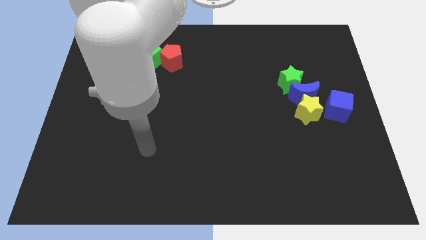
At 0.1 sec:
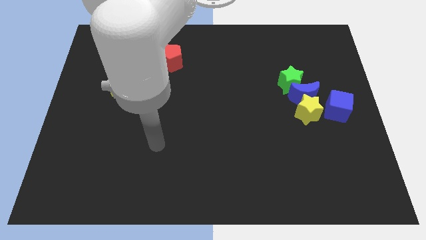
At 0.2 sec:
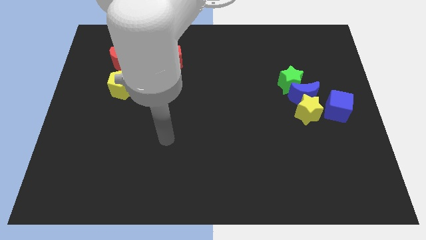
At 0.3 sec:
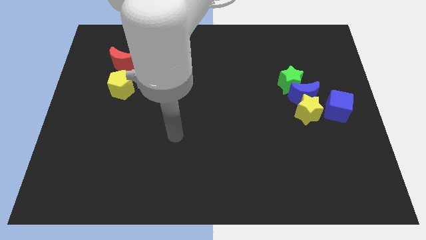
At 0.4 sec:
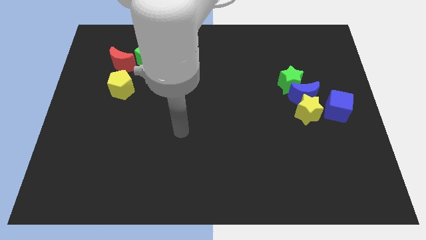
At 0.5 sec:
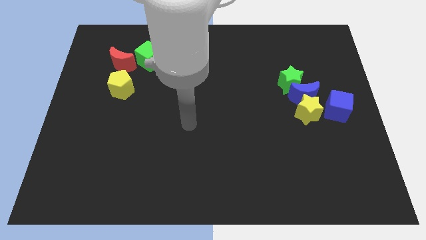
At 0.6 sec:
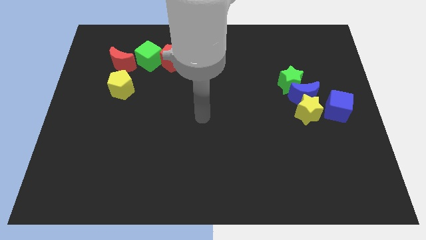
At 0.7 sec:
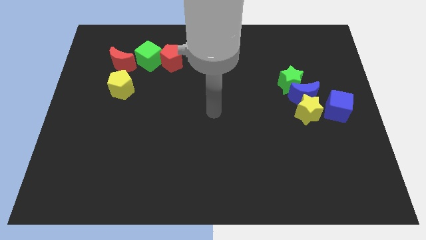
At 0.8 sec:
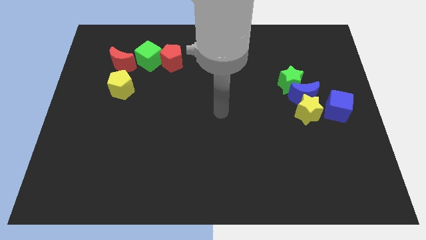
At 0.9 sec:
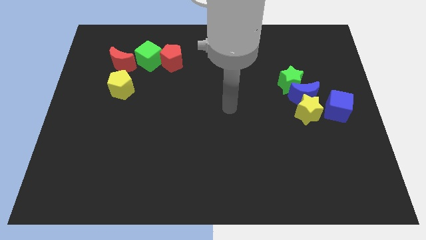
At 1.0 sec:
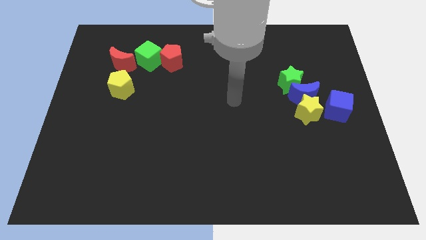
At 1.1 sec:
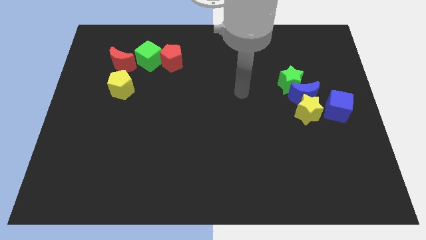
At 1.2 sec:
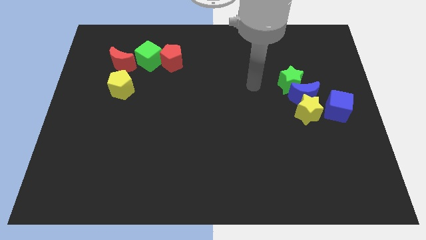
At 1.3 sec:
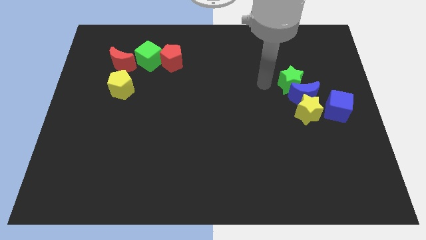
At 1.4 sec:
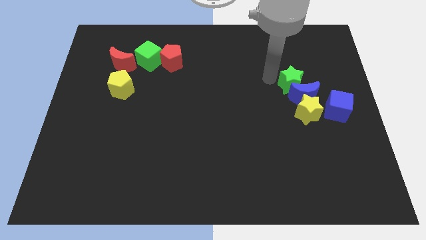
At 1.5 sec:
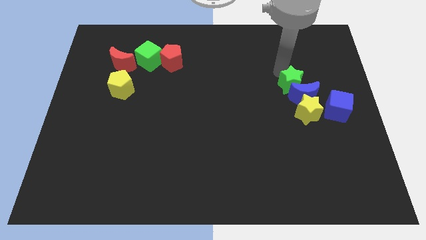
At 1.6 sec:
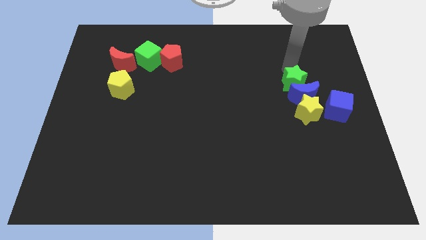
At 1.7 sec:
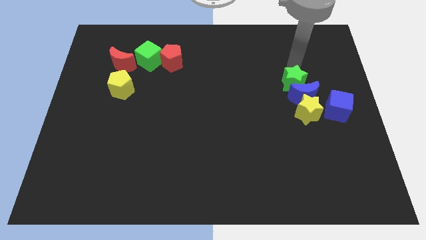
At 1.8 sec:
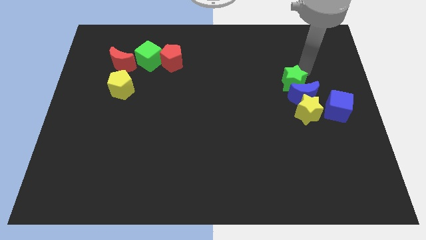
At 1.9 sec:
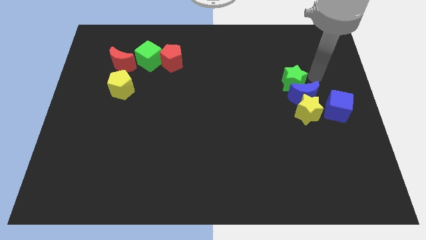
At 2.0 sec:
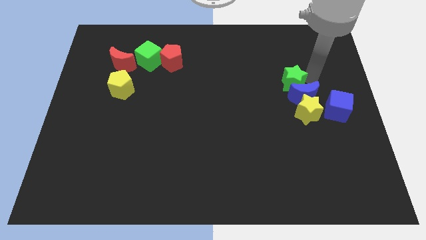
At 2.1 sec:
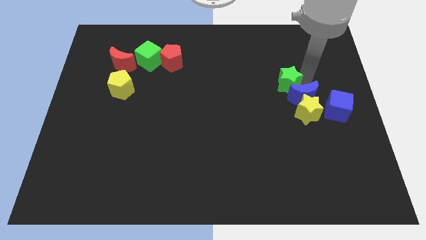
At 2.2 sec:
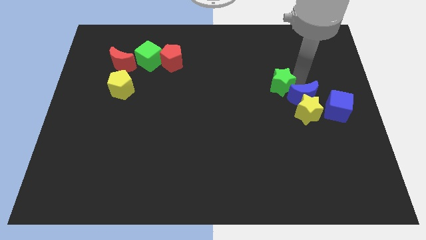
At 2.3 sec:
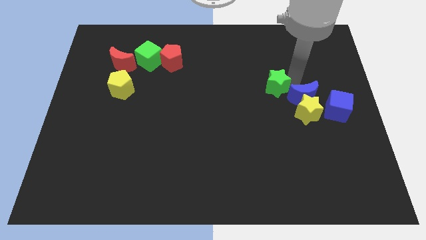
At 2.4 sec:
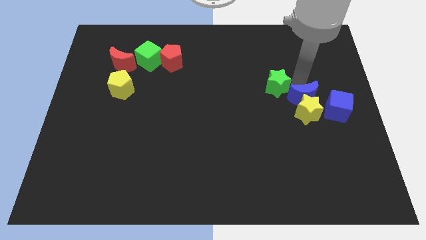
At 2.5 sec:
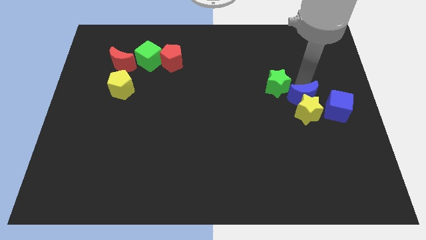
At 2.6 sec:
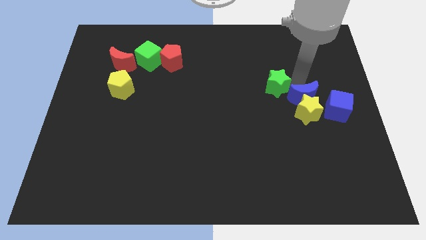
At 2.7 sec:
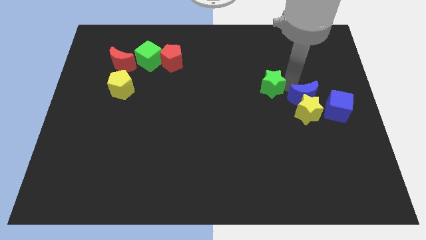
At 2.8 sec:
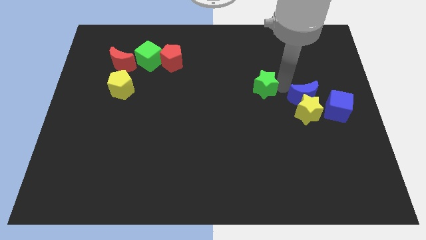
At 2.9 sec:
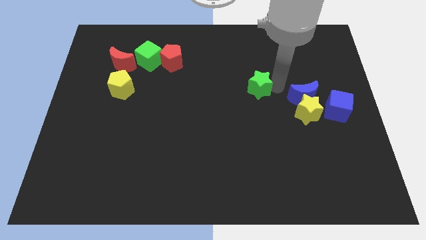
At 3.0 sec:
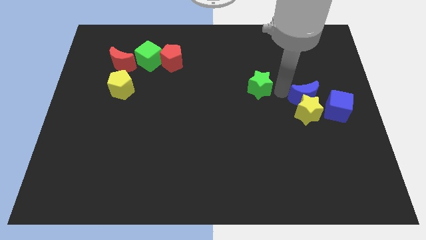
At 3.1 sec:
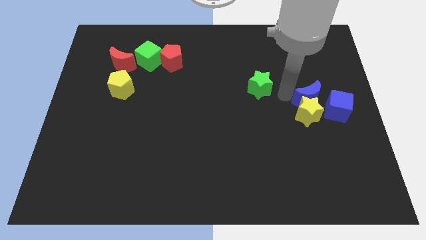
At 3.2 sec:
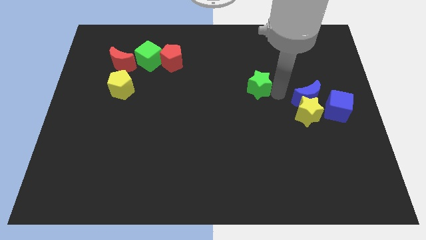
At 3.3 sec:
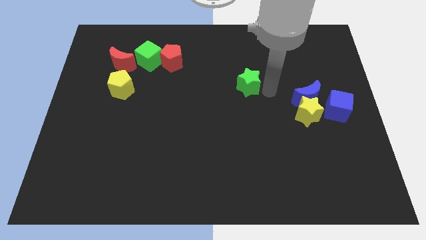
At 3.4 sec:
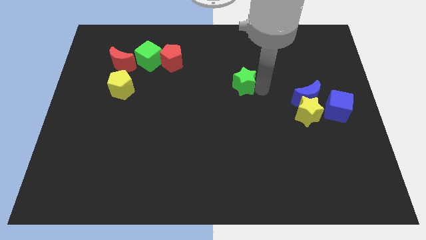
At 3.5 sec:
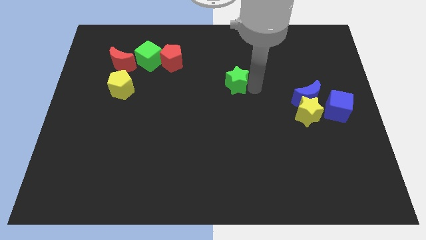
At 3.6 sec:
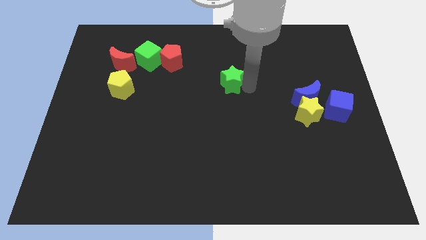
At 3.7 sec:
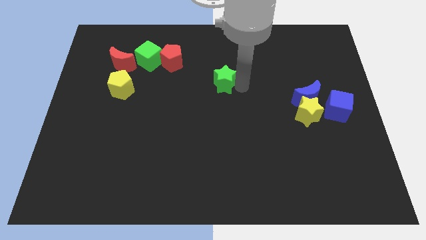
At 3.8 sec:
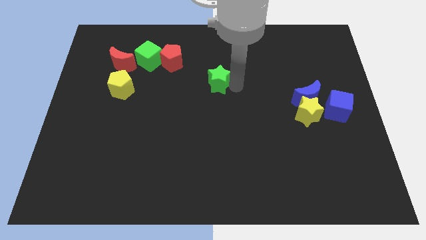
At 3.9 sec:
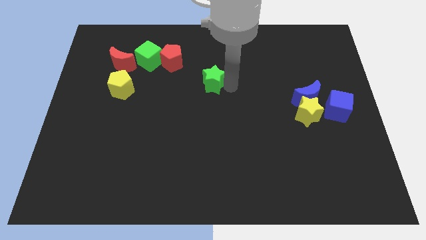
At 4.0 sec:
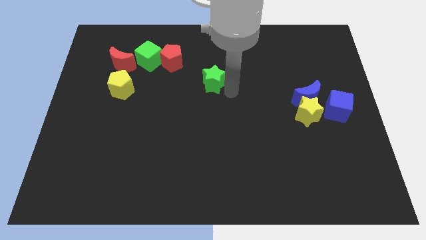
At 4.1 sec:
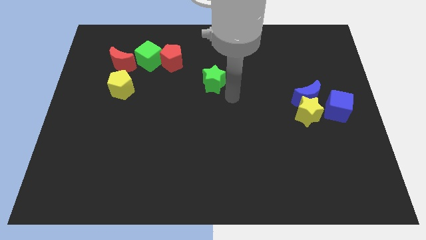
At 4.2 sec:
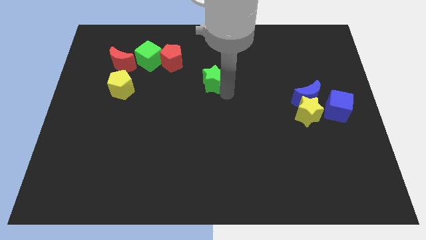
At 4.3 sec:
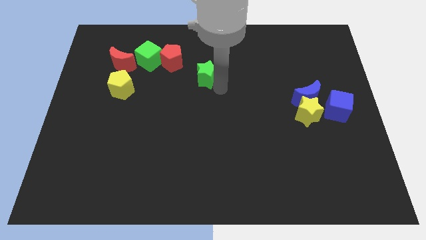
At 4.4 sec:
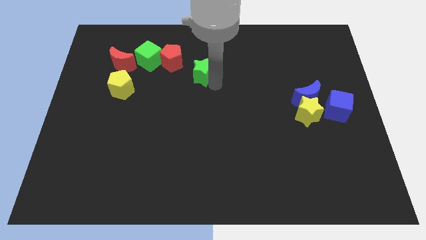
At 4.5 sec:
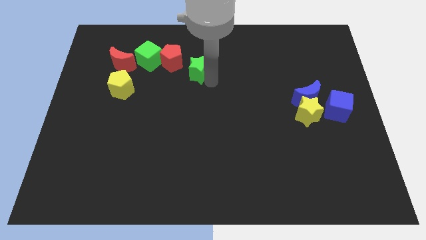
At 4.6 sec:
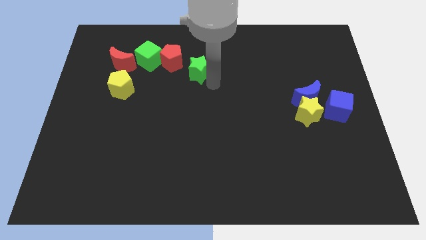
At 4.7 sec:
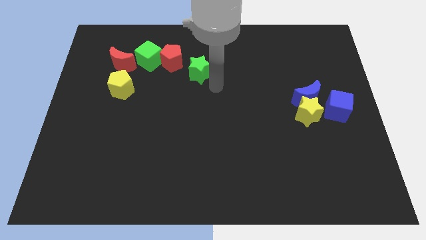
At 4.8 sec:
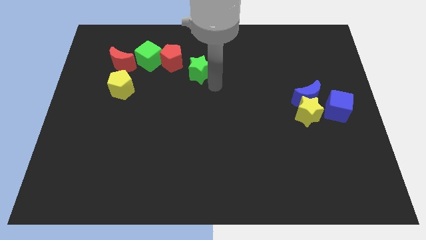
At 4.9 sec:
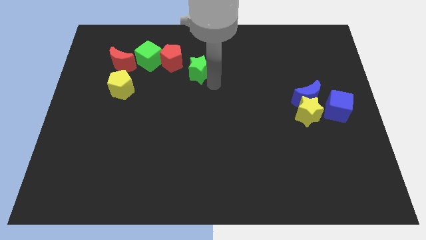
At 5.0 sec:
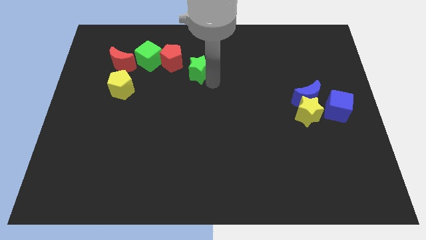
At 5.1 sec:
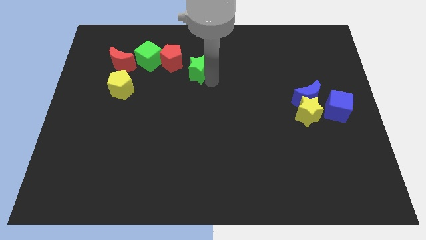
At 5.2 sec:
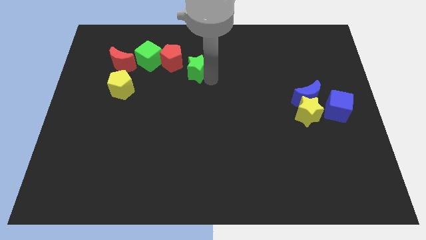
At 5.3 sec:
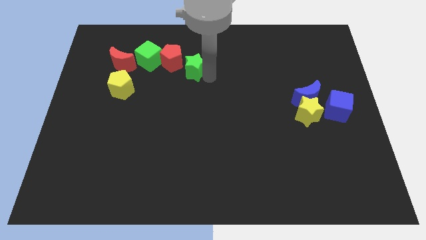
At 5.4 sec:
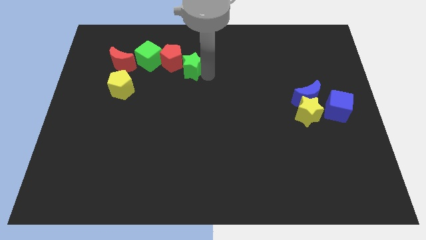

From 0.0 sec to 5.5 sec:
slide the green star towards the red pentagon

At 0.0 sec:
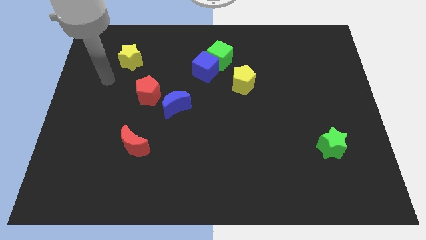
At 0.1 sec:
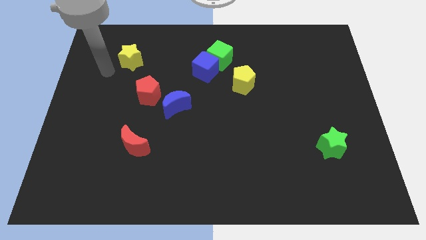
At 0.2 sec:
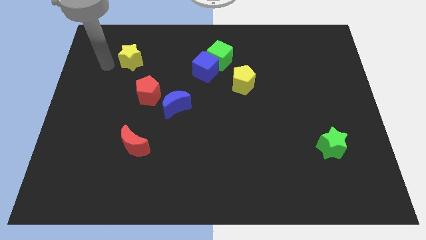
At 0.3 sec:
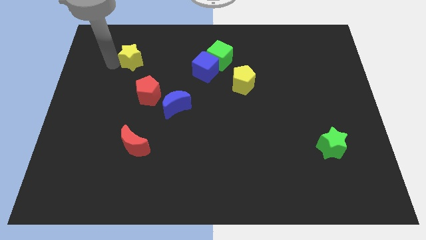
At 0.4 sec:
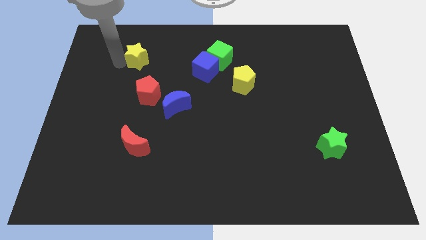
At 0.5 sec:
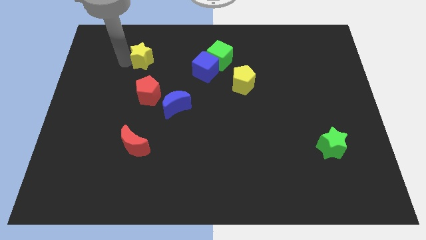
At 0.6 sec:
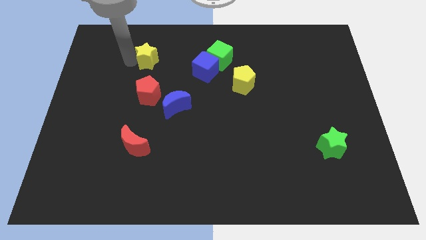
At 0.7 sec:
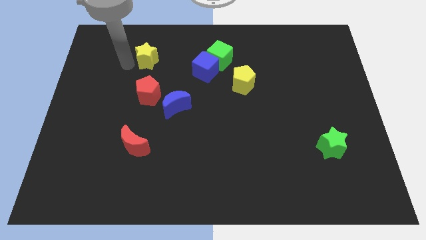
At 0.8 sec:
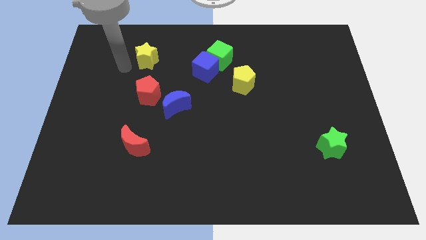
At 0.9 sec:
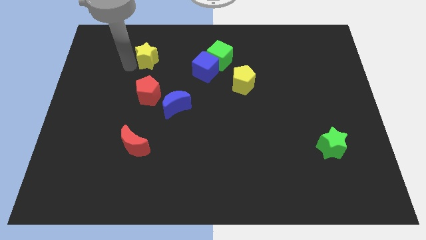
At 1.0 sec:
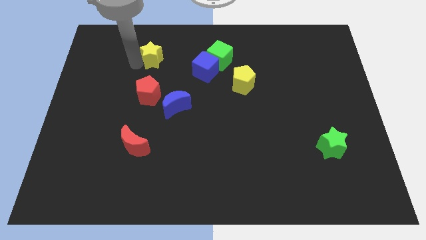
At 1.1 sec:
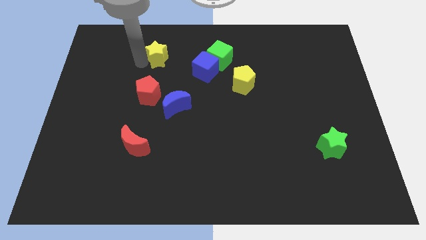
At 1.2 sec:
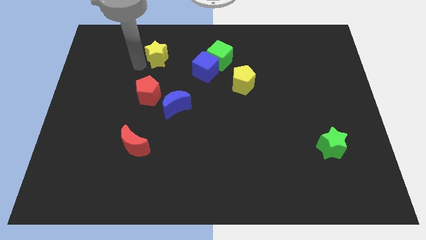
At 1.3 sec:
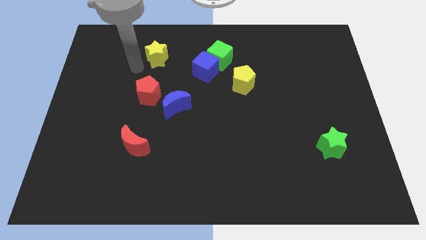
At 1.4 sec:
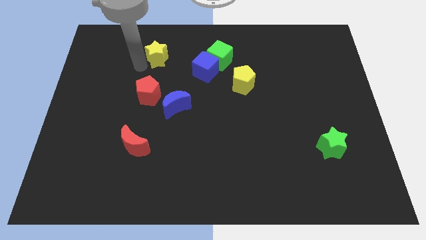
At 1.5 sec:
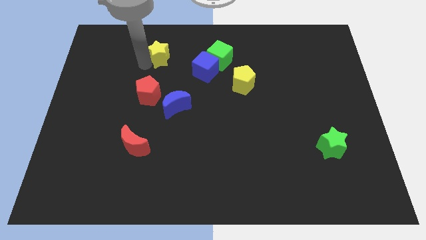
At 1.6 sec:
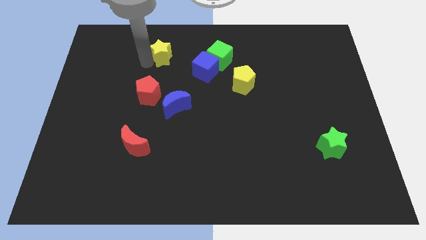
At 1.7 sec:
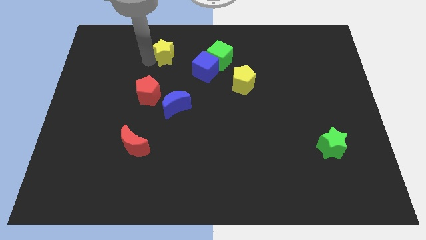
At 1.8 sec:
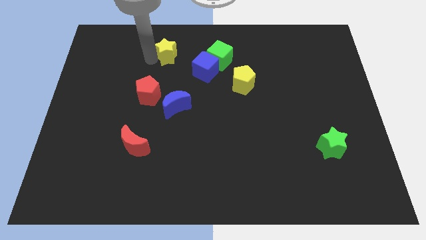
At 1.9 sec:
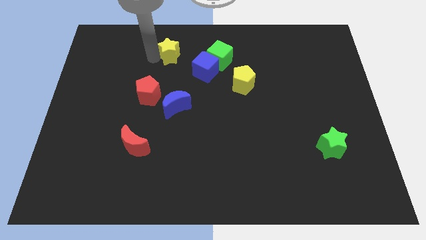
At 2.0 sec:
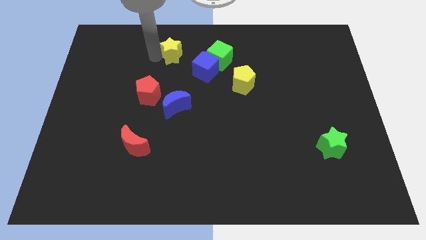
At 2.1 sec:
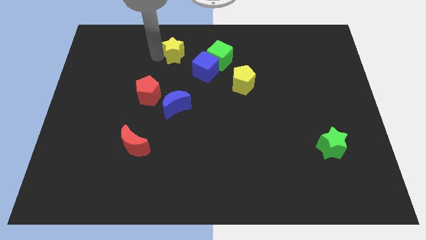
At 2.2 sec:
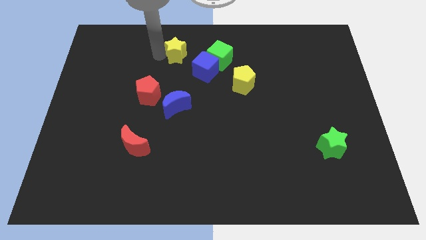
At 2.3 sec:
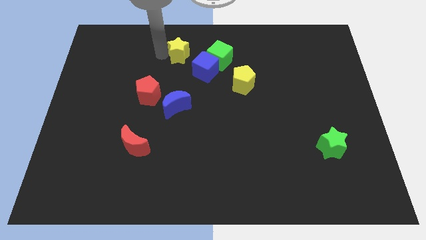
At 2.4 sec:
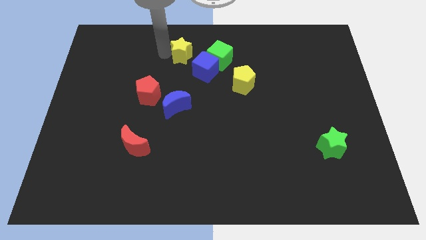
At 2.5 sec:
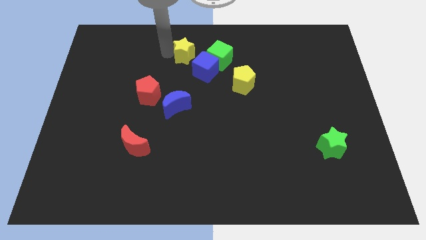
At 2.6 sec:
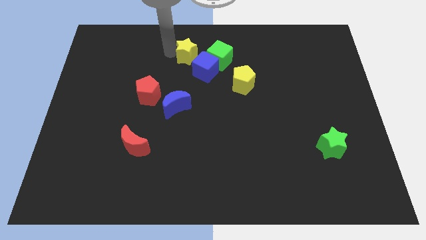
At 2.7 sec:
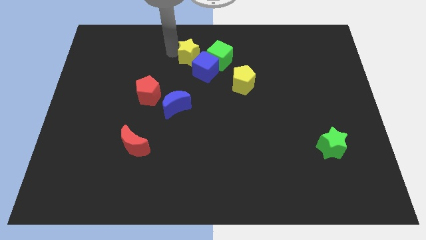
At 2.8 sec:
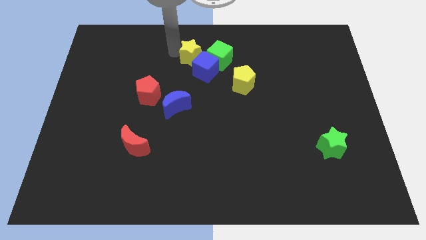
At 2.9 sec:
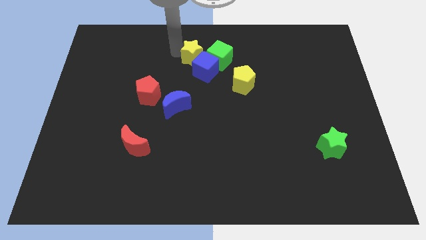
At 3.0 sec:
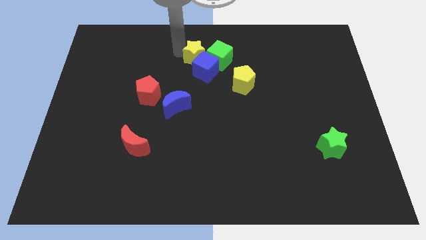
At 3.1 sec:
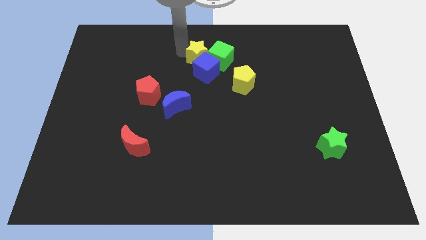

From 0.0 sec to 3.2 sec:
slide the yellow star close to the green cube
